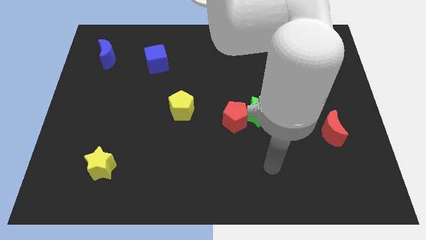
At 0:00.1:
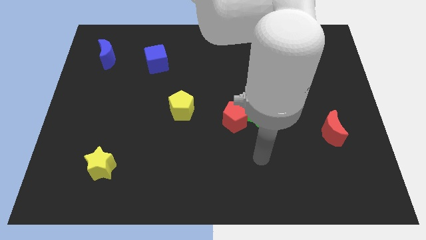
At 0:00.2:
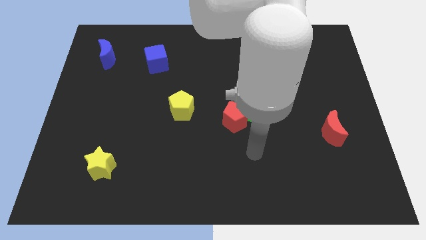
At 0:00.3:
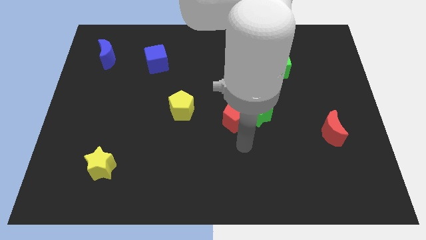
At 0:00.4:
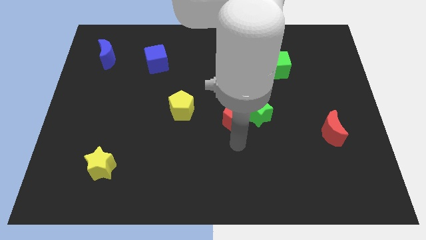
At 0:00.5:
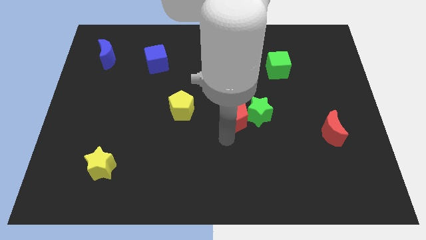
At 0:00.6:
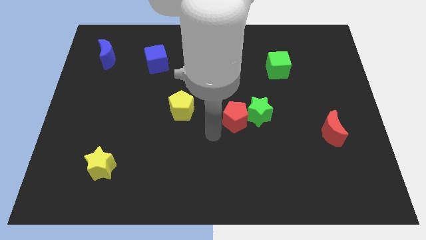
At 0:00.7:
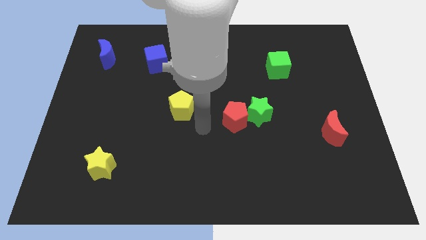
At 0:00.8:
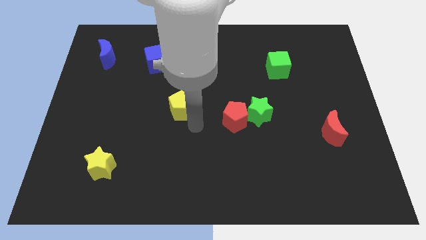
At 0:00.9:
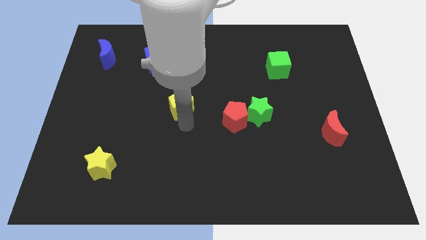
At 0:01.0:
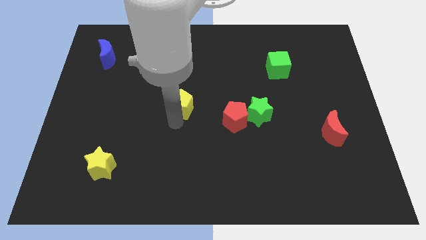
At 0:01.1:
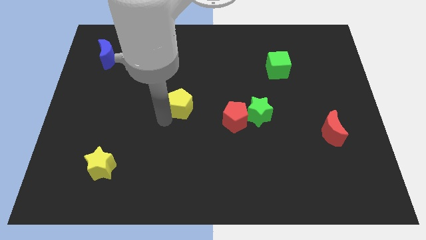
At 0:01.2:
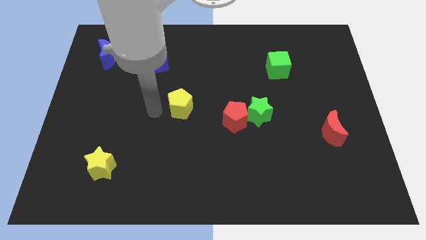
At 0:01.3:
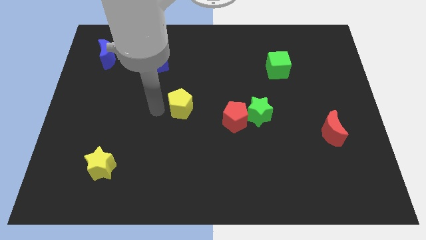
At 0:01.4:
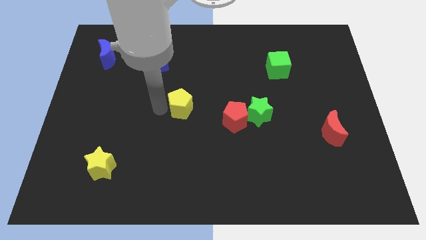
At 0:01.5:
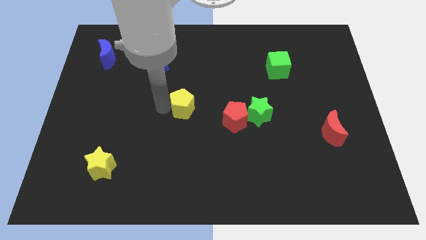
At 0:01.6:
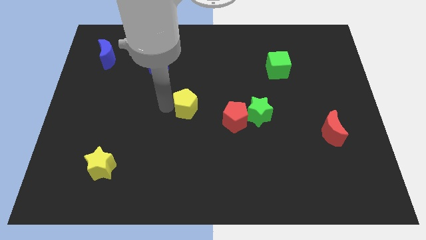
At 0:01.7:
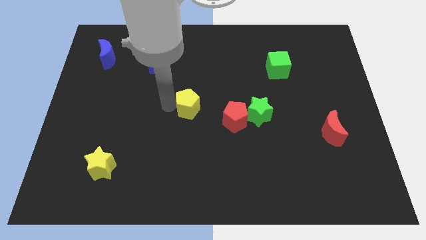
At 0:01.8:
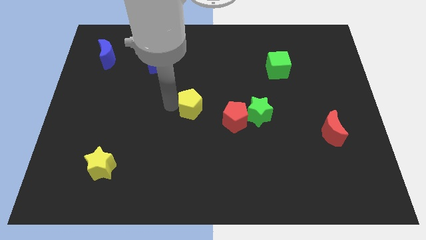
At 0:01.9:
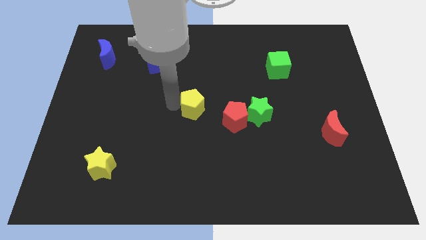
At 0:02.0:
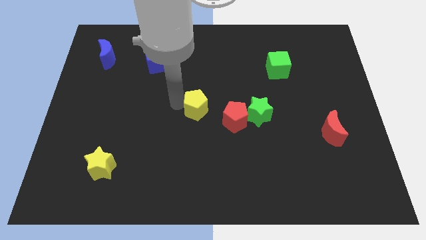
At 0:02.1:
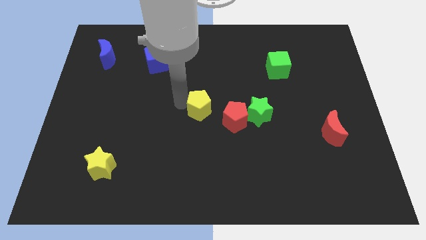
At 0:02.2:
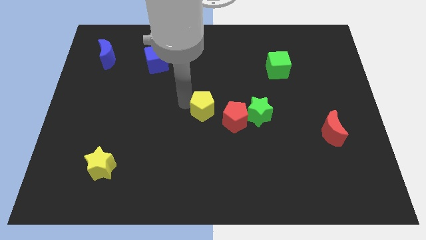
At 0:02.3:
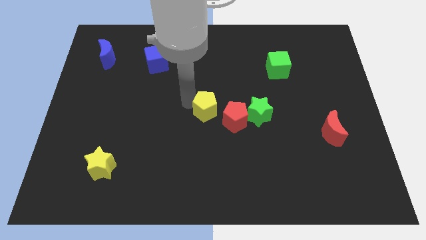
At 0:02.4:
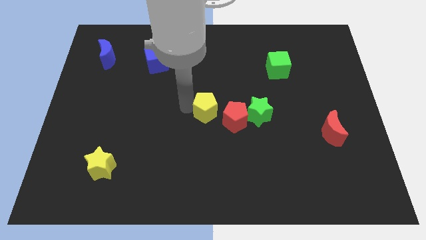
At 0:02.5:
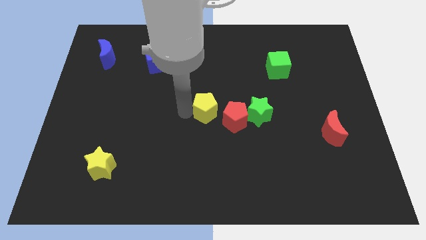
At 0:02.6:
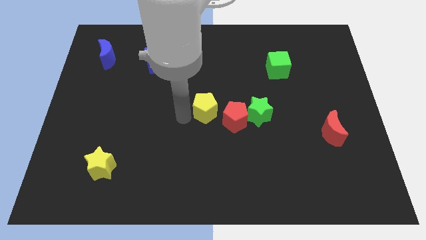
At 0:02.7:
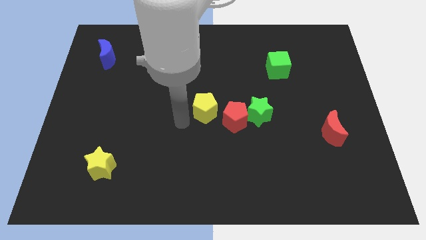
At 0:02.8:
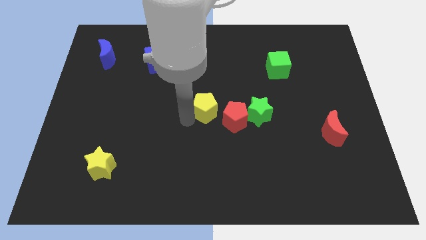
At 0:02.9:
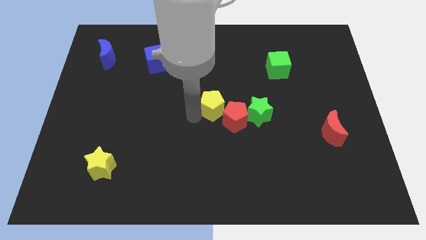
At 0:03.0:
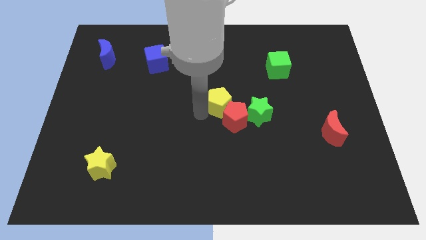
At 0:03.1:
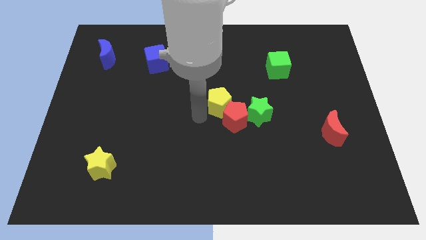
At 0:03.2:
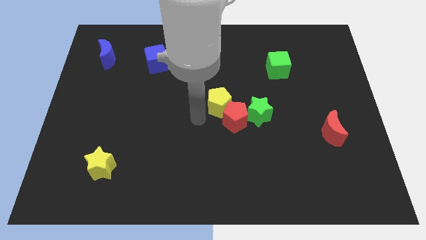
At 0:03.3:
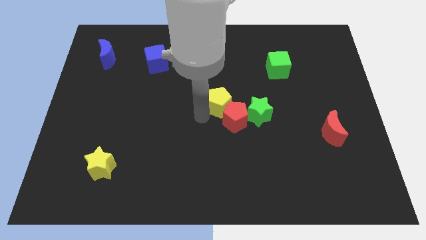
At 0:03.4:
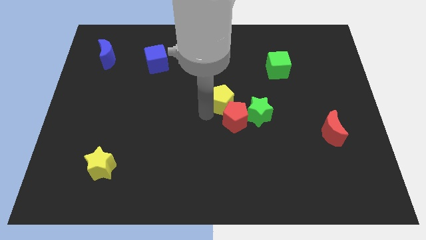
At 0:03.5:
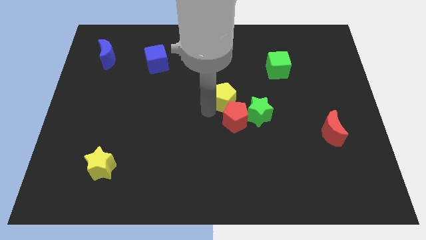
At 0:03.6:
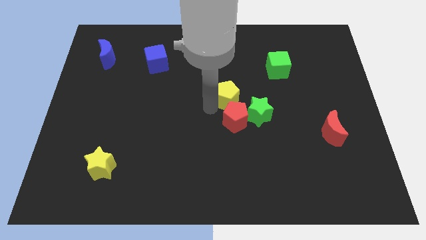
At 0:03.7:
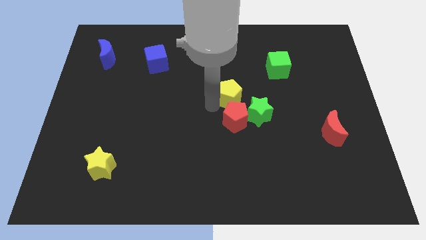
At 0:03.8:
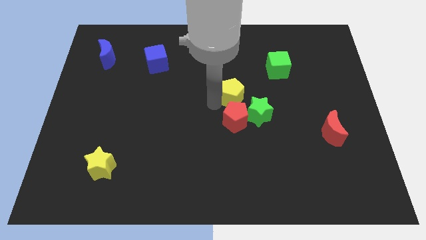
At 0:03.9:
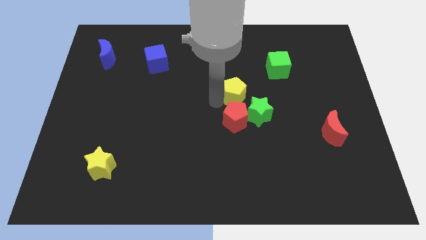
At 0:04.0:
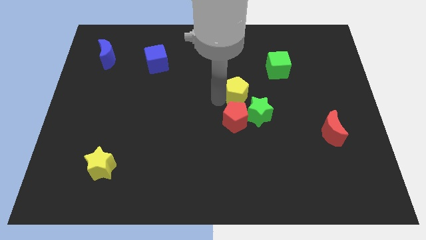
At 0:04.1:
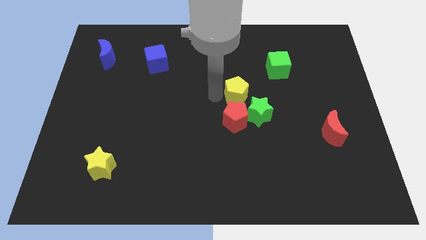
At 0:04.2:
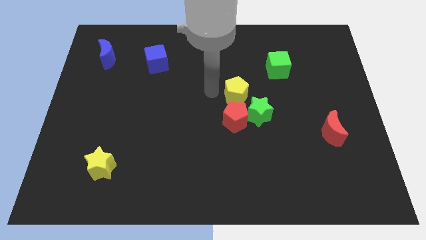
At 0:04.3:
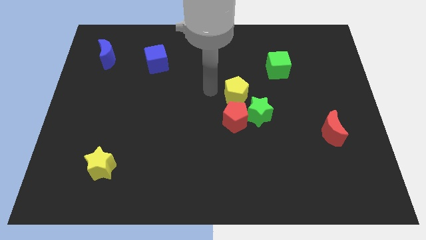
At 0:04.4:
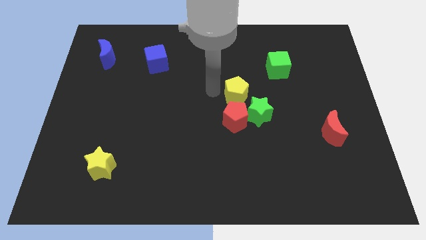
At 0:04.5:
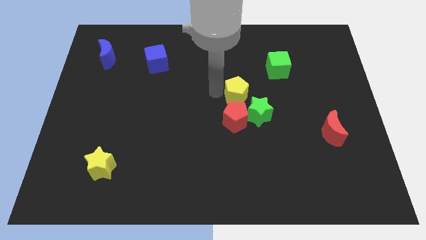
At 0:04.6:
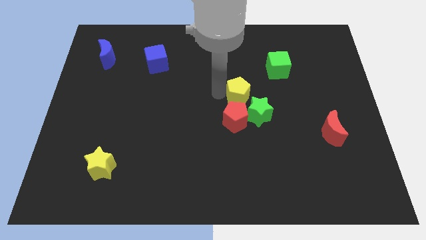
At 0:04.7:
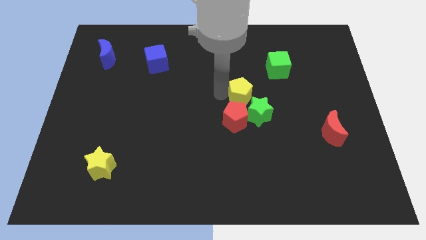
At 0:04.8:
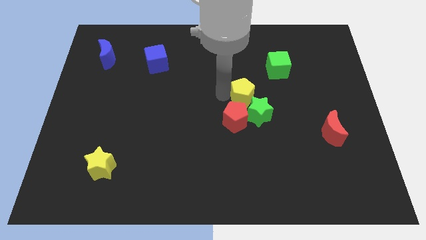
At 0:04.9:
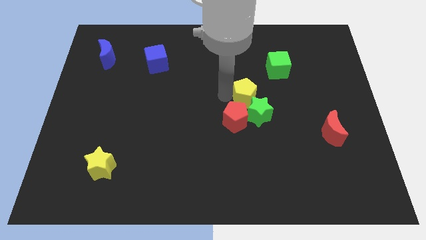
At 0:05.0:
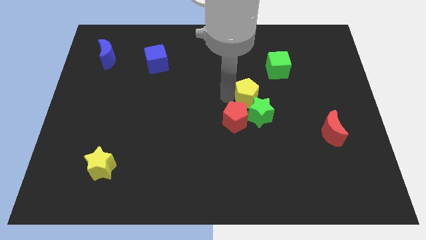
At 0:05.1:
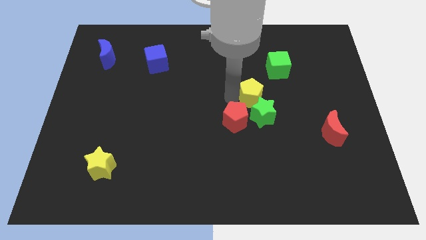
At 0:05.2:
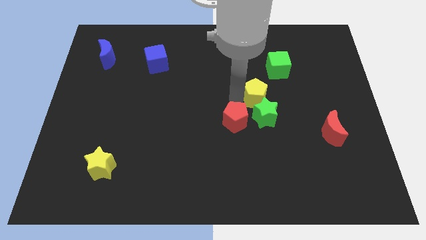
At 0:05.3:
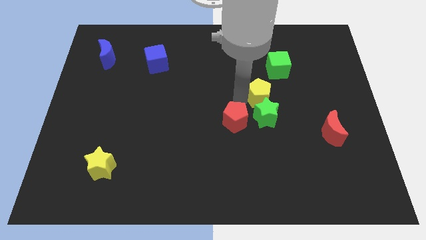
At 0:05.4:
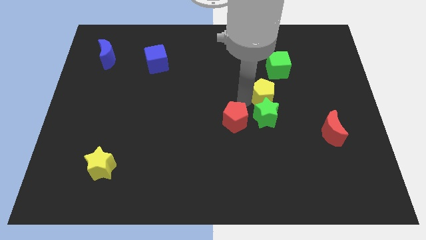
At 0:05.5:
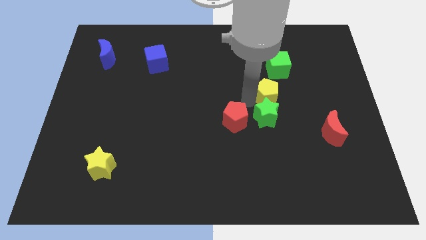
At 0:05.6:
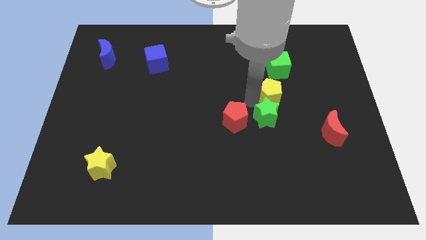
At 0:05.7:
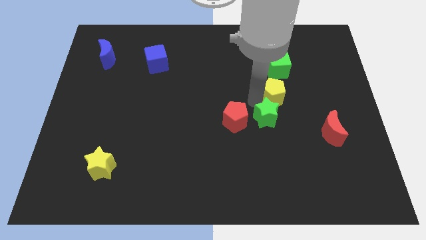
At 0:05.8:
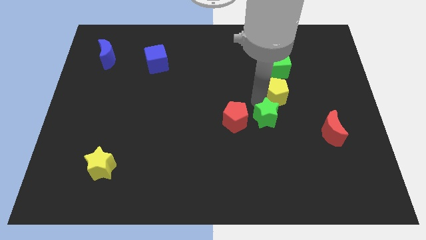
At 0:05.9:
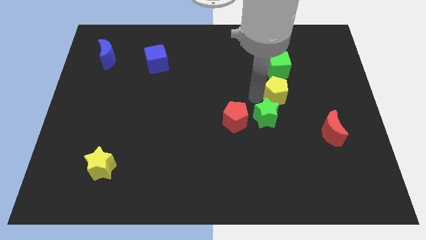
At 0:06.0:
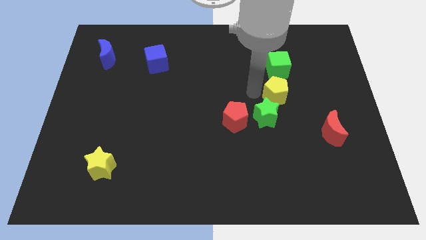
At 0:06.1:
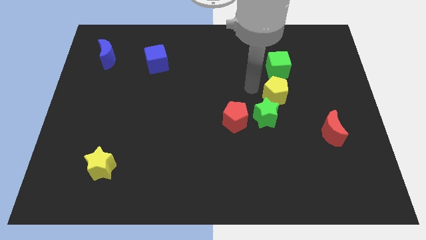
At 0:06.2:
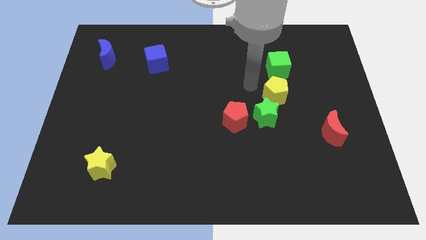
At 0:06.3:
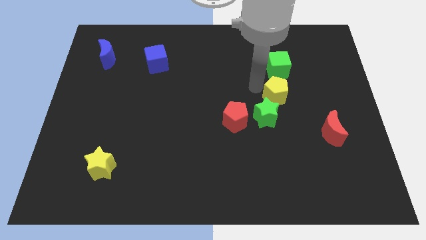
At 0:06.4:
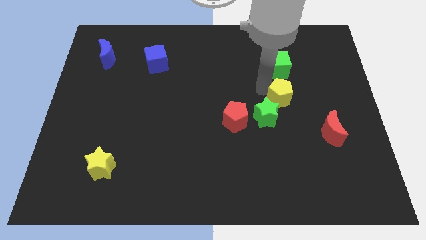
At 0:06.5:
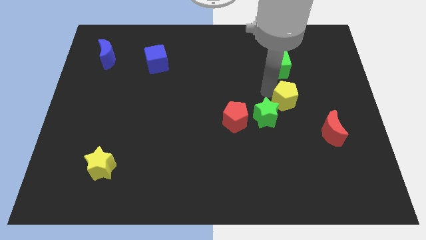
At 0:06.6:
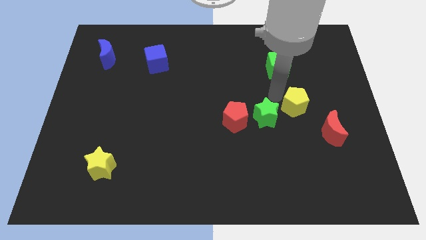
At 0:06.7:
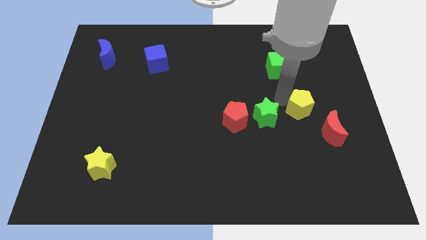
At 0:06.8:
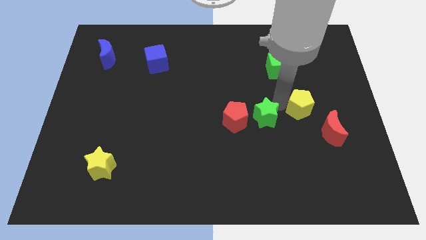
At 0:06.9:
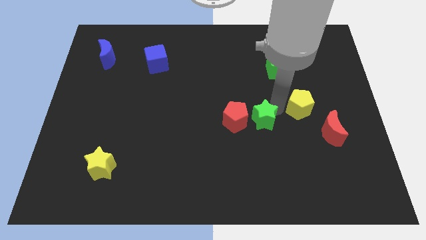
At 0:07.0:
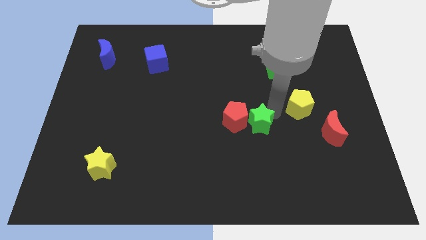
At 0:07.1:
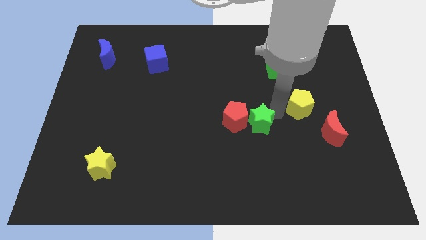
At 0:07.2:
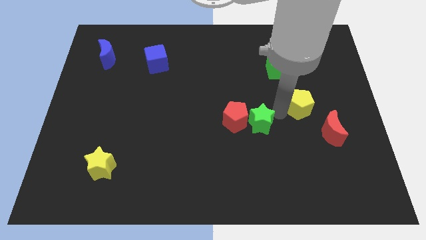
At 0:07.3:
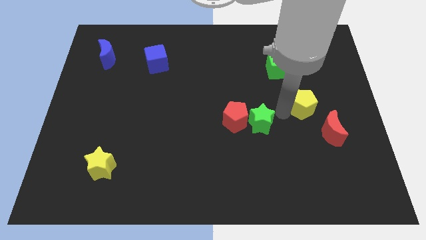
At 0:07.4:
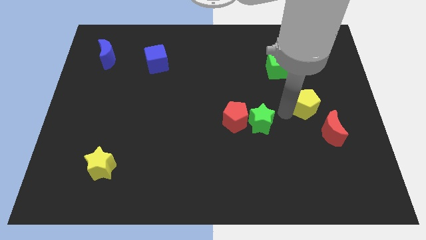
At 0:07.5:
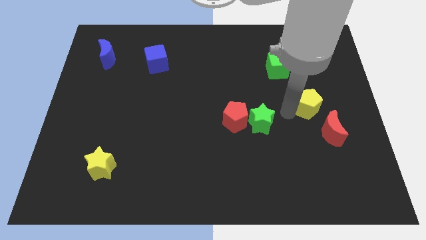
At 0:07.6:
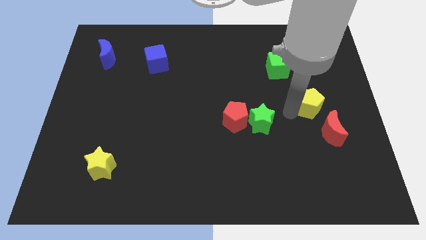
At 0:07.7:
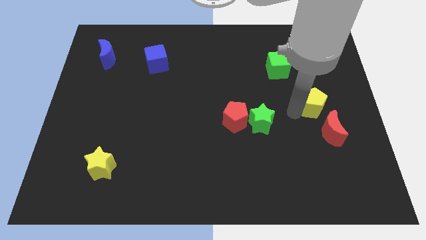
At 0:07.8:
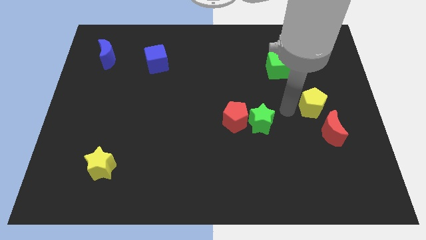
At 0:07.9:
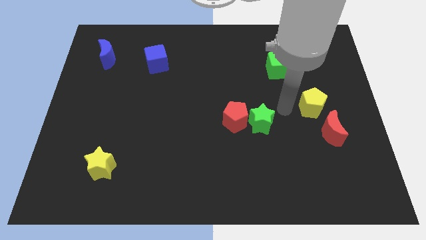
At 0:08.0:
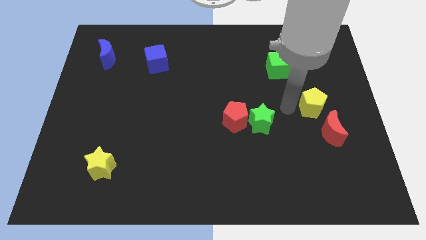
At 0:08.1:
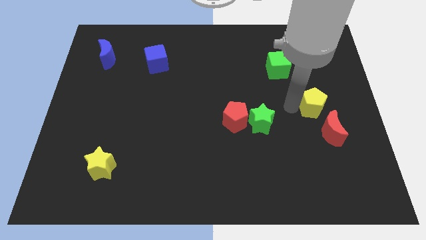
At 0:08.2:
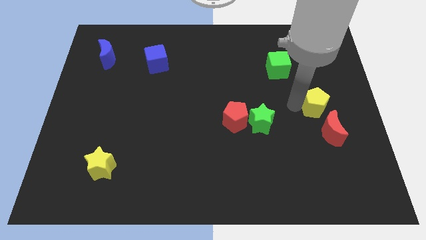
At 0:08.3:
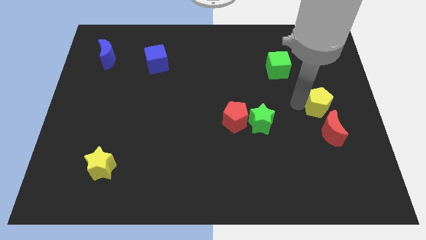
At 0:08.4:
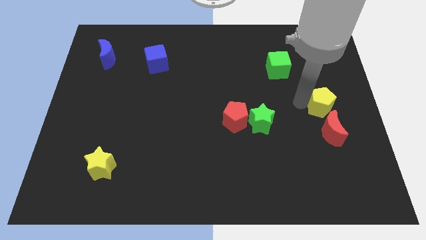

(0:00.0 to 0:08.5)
slide the yellow pentagon to the right side
